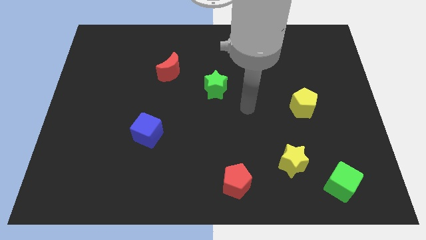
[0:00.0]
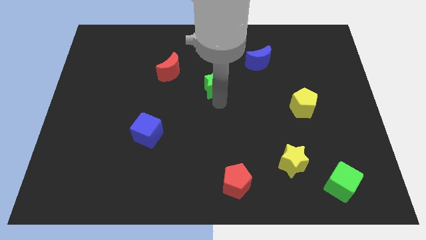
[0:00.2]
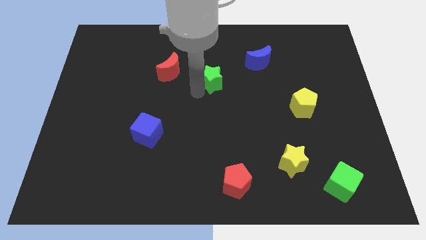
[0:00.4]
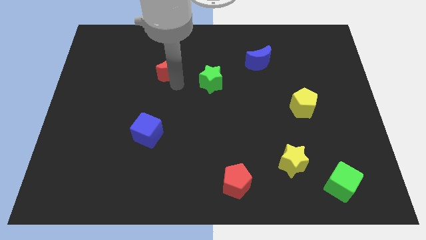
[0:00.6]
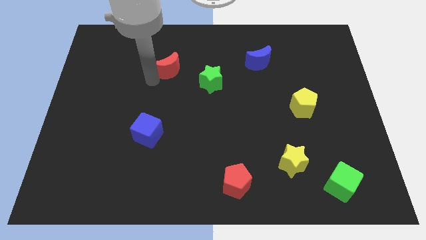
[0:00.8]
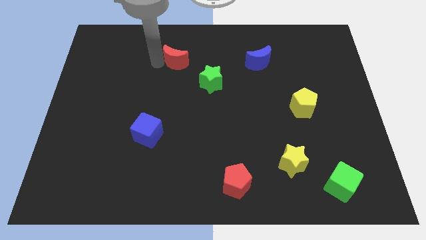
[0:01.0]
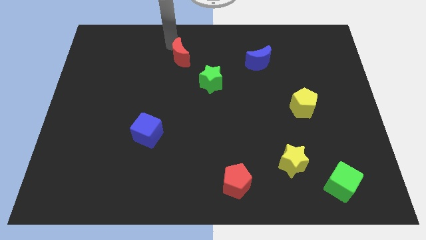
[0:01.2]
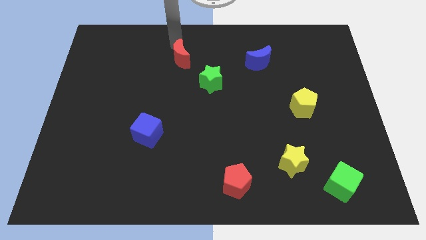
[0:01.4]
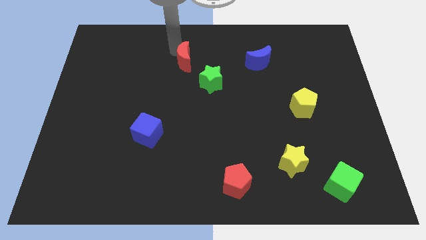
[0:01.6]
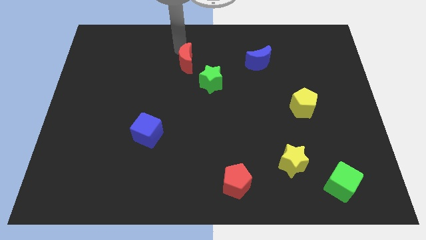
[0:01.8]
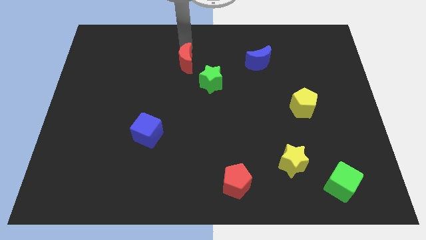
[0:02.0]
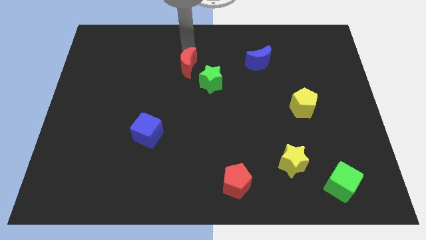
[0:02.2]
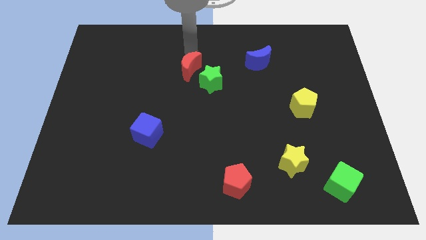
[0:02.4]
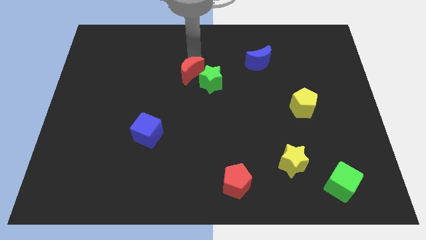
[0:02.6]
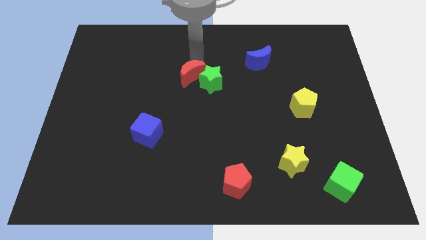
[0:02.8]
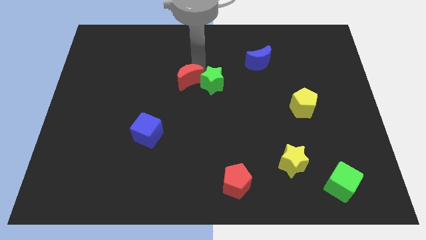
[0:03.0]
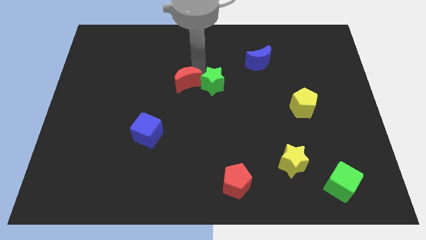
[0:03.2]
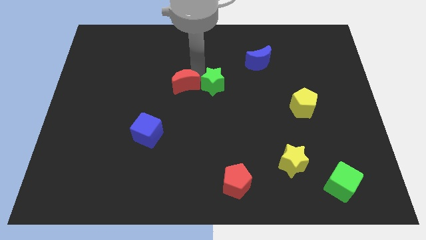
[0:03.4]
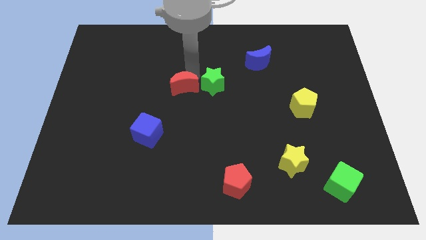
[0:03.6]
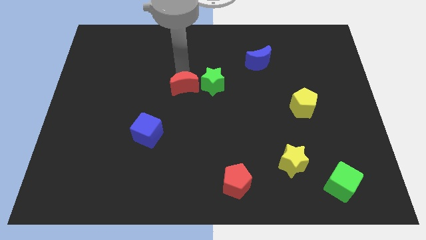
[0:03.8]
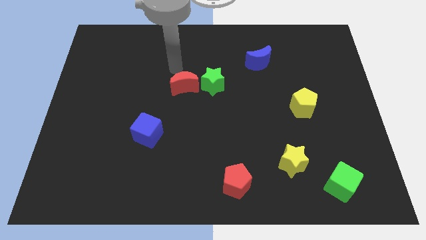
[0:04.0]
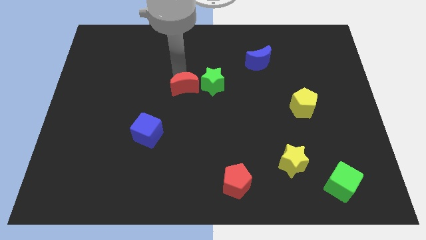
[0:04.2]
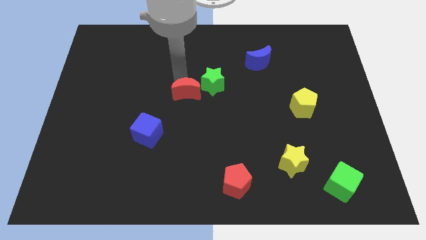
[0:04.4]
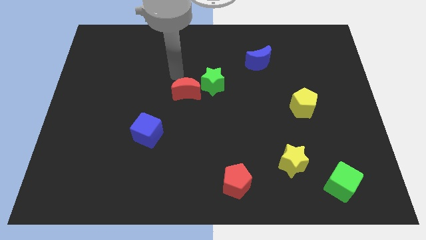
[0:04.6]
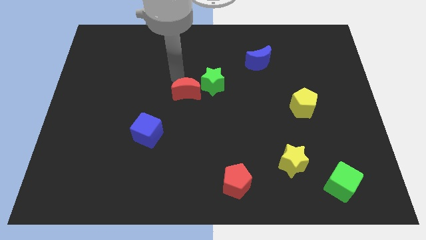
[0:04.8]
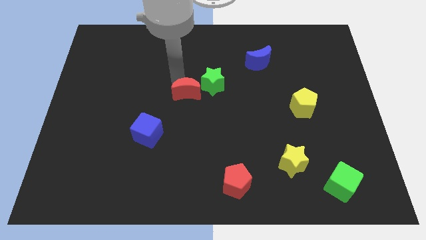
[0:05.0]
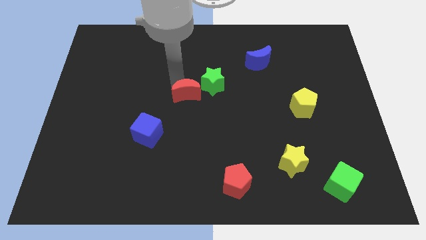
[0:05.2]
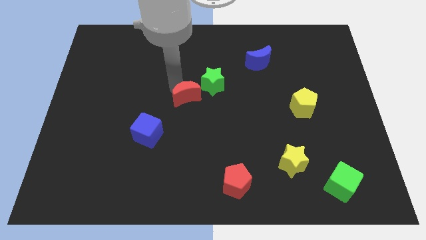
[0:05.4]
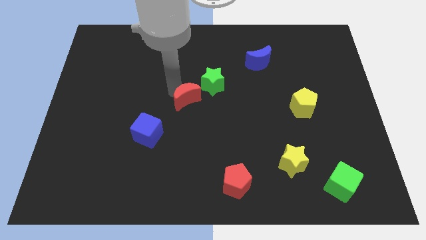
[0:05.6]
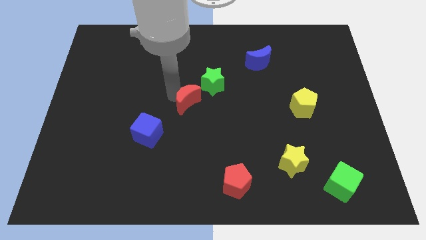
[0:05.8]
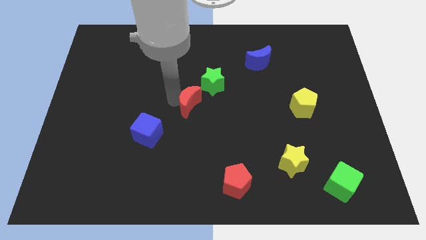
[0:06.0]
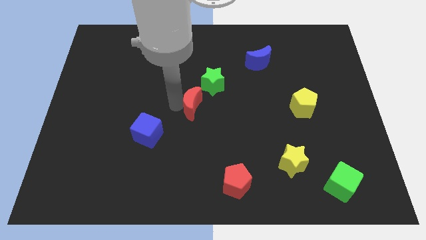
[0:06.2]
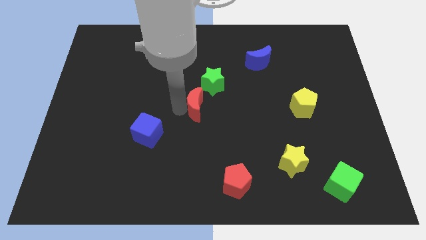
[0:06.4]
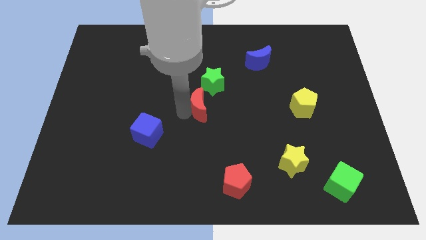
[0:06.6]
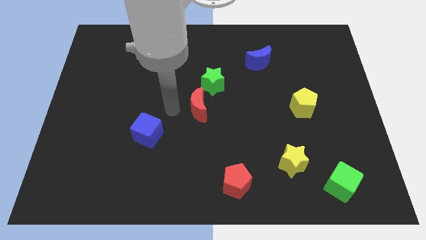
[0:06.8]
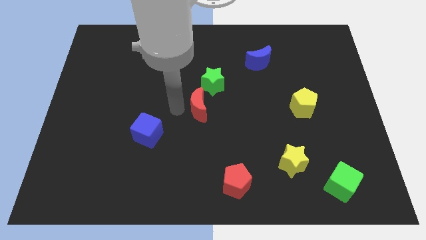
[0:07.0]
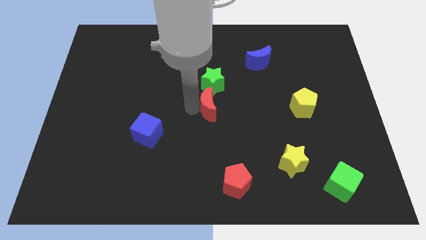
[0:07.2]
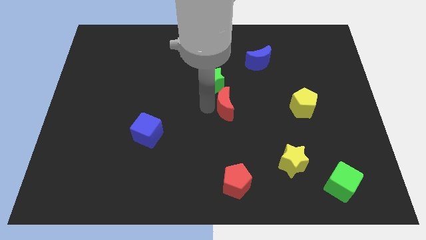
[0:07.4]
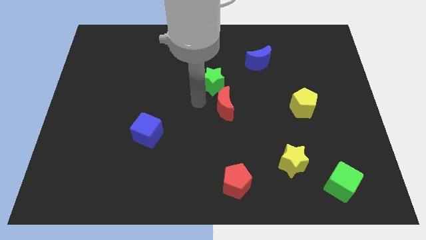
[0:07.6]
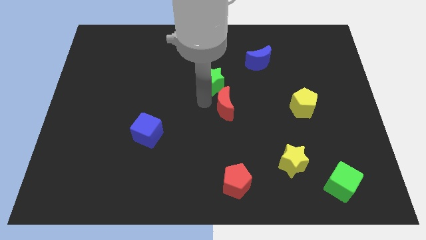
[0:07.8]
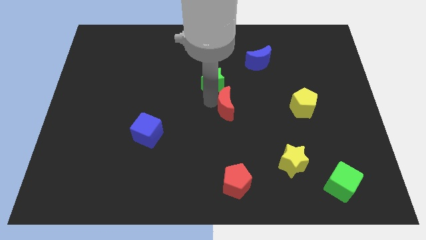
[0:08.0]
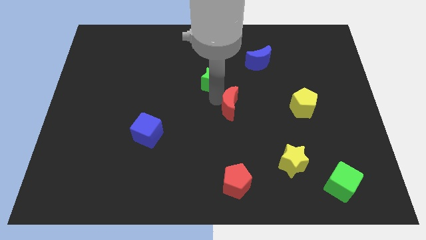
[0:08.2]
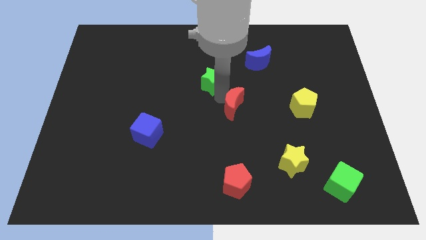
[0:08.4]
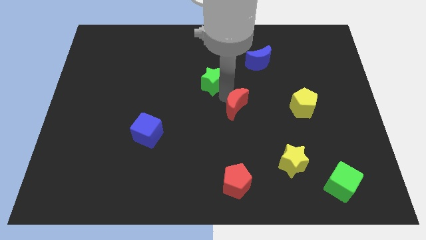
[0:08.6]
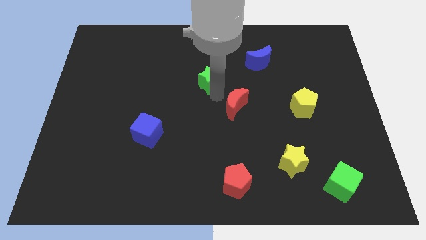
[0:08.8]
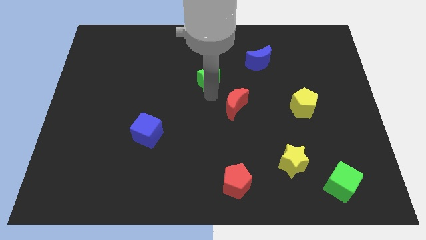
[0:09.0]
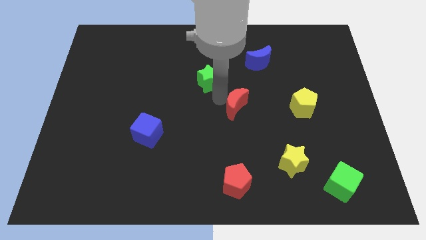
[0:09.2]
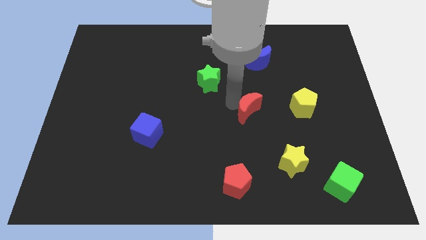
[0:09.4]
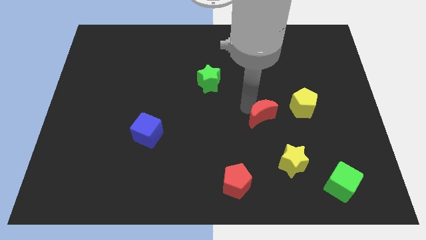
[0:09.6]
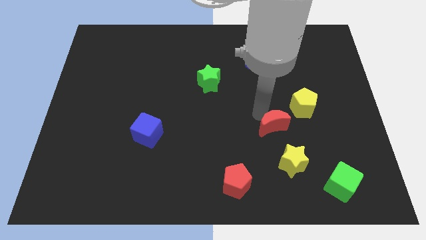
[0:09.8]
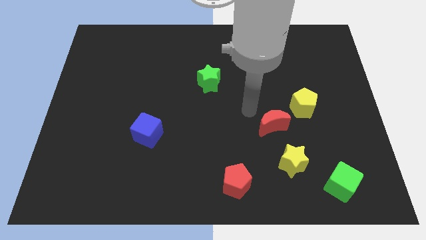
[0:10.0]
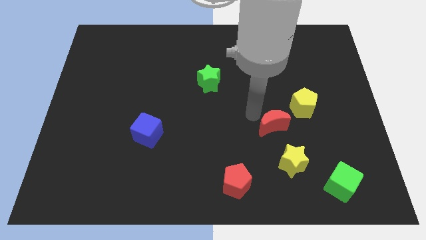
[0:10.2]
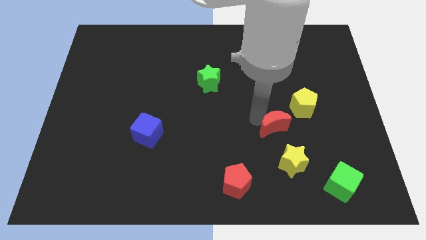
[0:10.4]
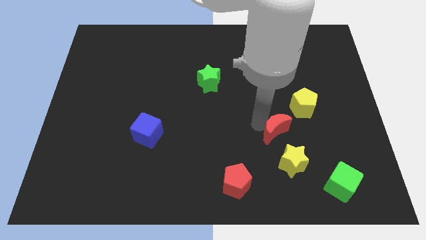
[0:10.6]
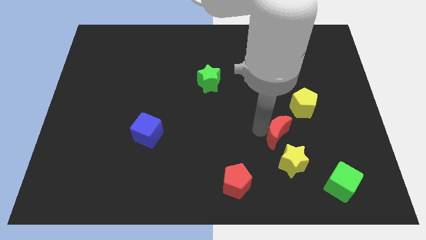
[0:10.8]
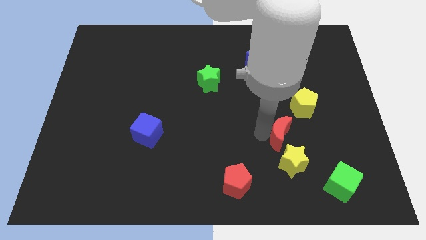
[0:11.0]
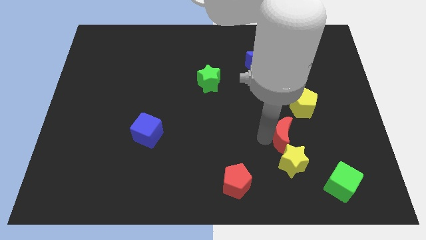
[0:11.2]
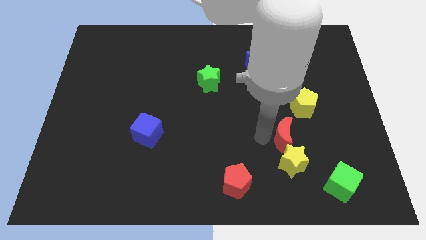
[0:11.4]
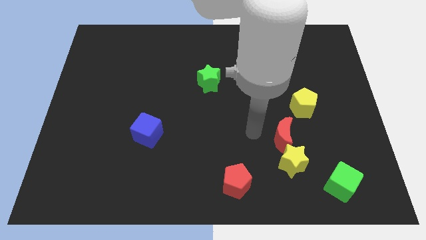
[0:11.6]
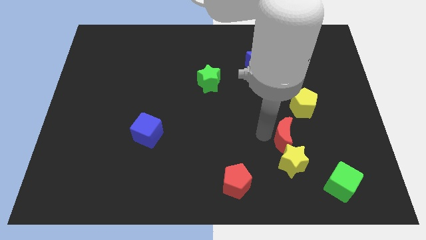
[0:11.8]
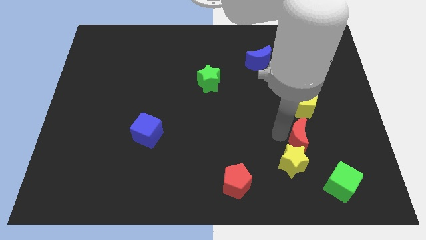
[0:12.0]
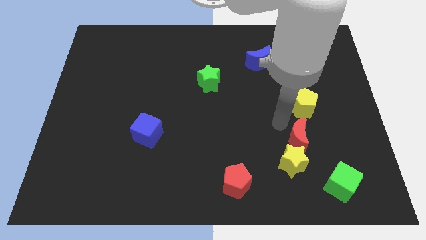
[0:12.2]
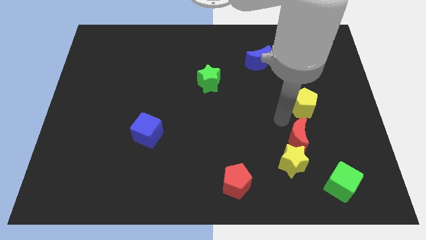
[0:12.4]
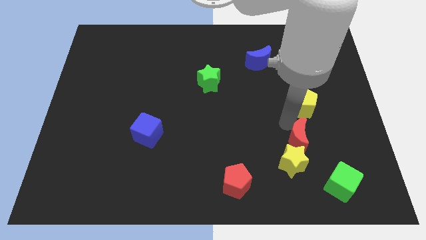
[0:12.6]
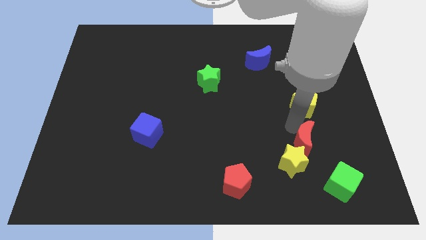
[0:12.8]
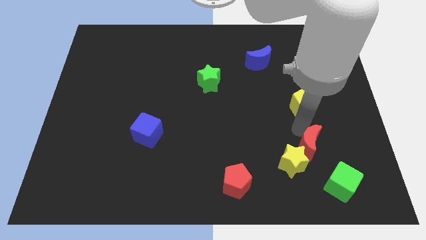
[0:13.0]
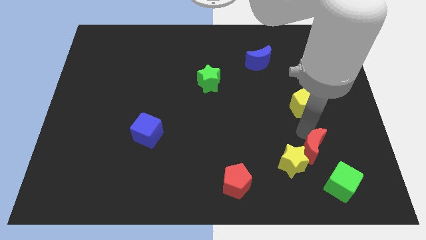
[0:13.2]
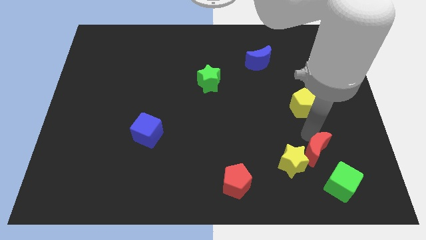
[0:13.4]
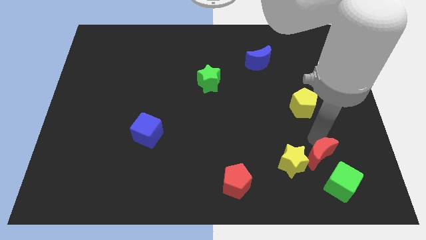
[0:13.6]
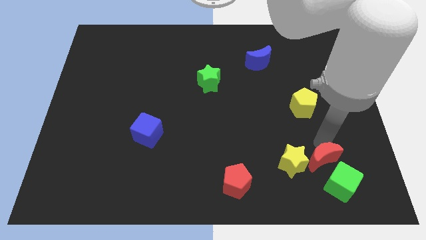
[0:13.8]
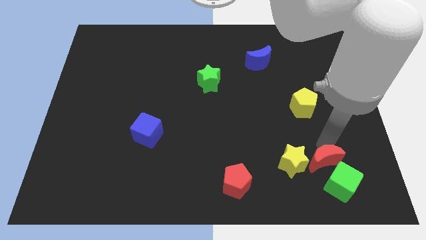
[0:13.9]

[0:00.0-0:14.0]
put the red moon next to the green cube

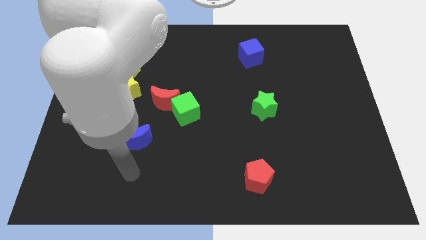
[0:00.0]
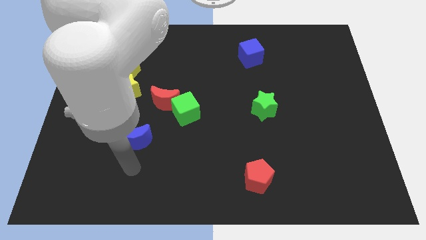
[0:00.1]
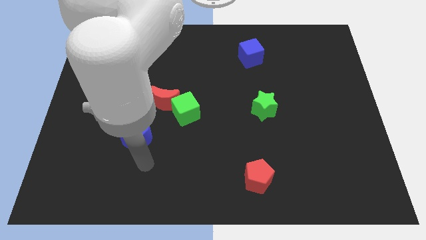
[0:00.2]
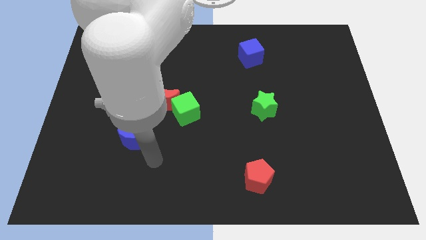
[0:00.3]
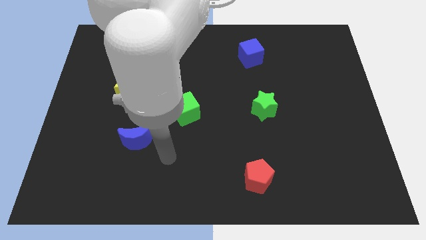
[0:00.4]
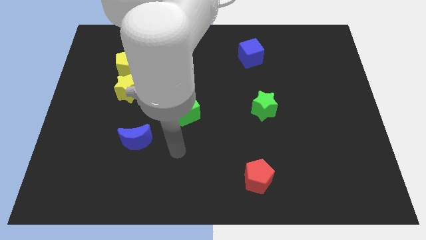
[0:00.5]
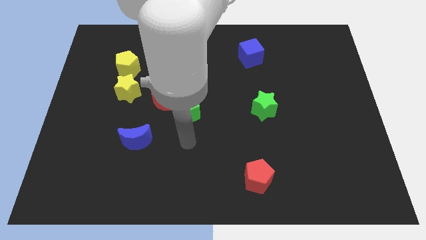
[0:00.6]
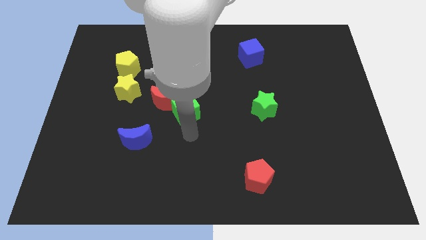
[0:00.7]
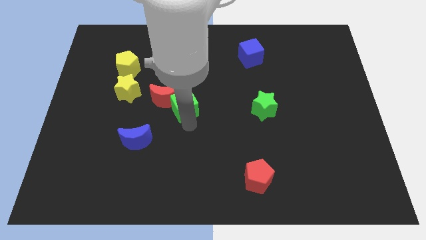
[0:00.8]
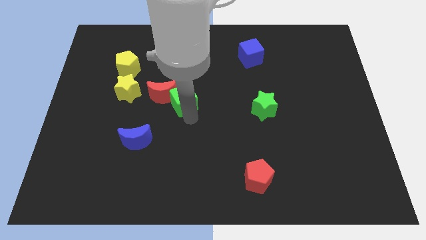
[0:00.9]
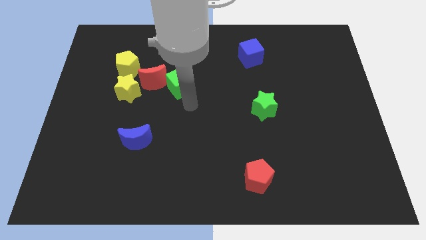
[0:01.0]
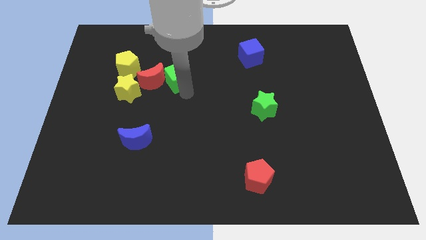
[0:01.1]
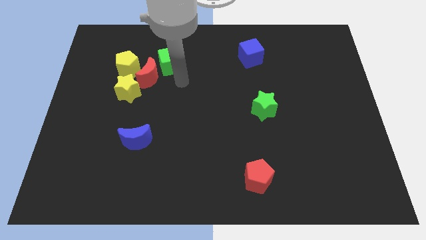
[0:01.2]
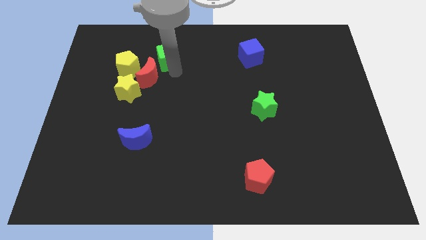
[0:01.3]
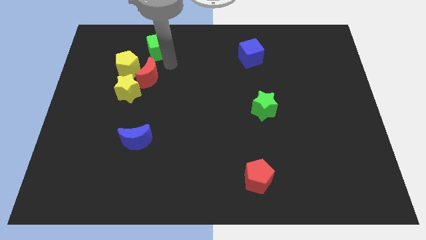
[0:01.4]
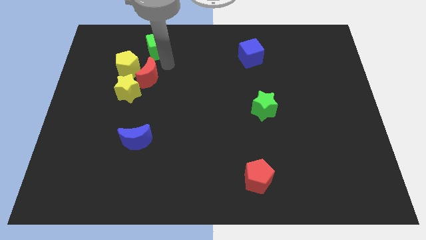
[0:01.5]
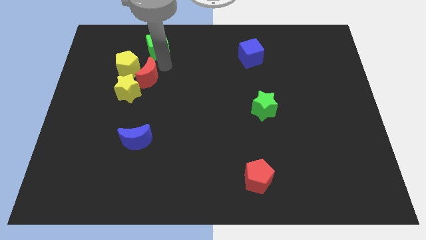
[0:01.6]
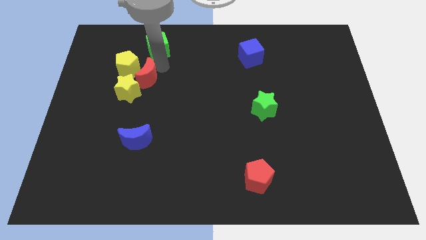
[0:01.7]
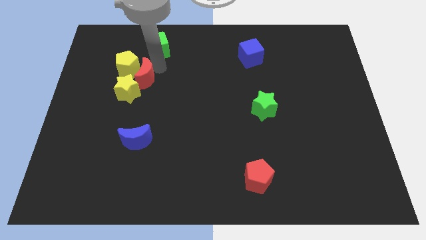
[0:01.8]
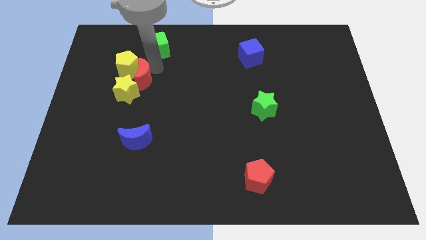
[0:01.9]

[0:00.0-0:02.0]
put the red moon to the yellow star
